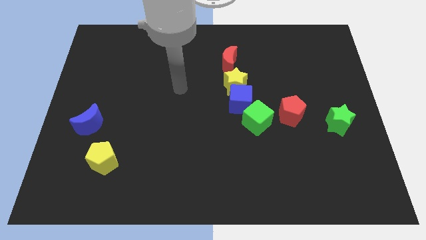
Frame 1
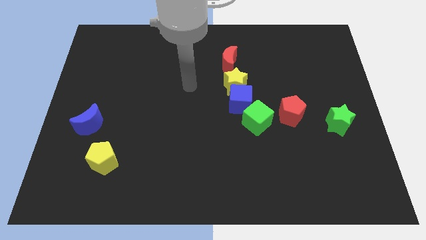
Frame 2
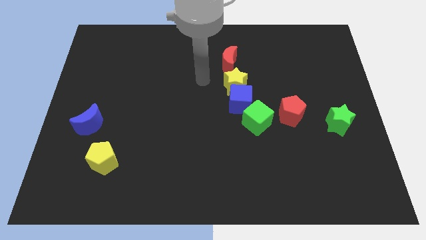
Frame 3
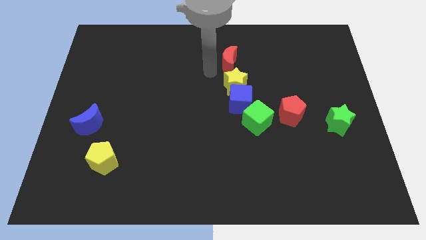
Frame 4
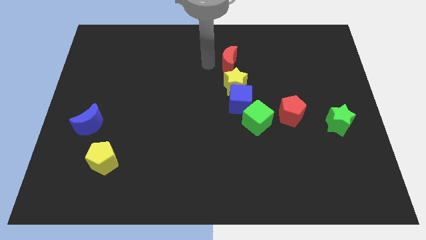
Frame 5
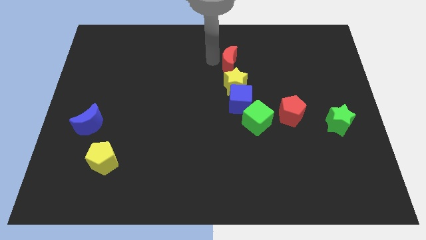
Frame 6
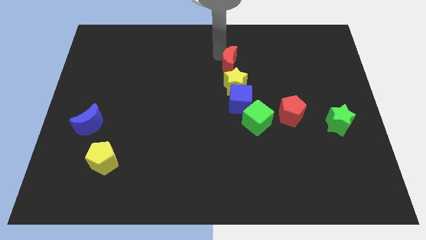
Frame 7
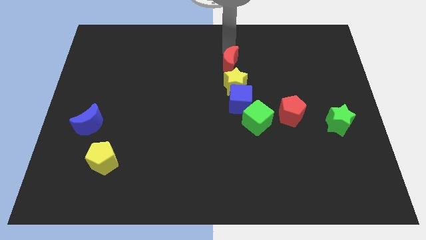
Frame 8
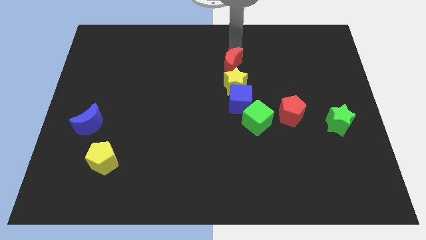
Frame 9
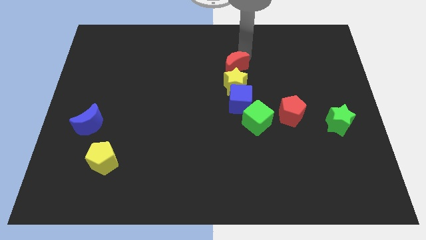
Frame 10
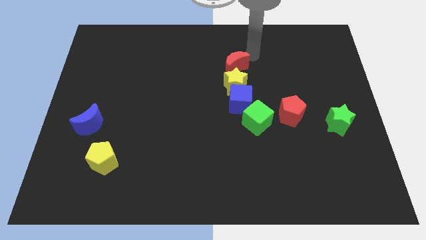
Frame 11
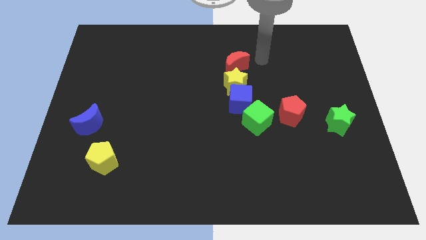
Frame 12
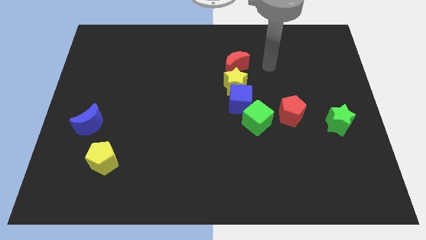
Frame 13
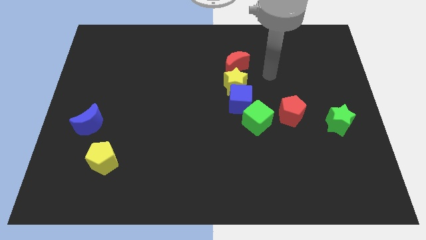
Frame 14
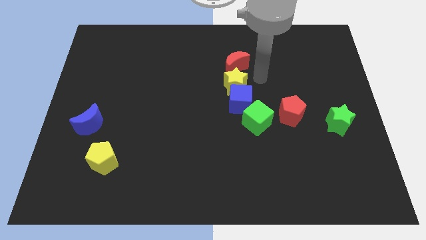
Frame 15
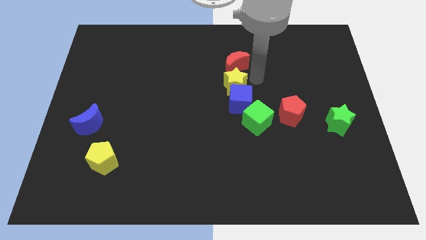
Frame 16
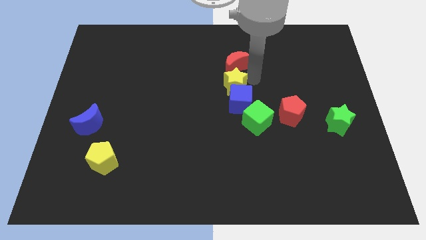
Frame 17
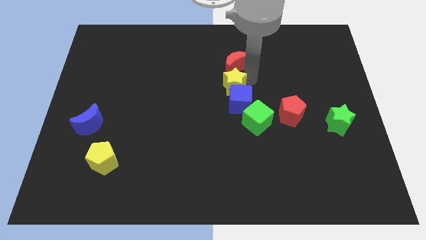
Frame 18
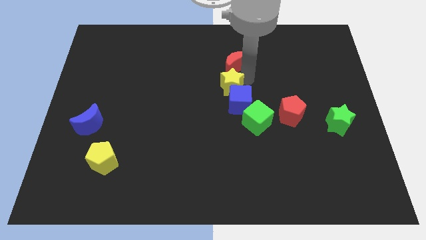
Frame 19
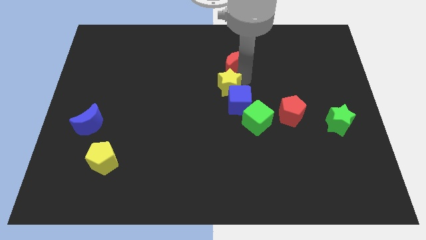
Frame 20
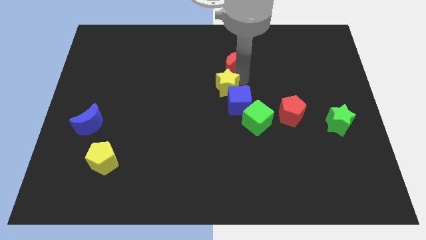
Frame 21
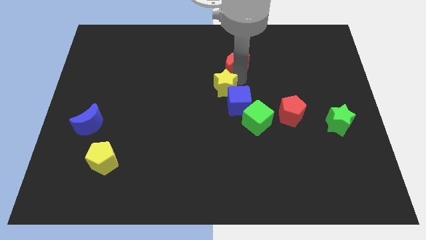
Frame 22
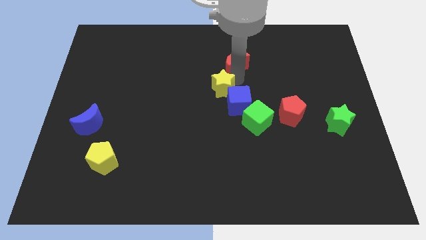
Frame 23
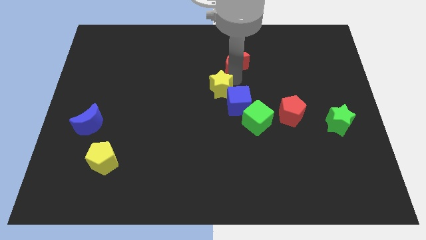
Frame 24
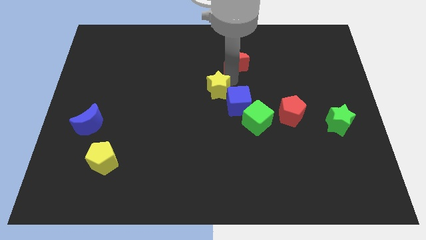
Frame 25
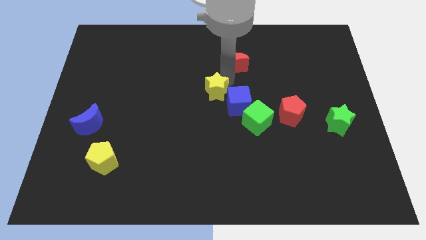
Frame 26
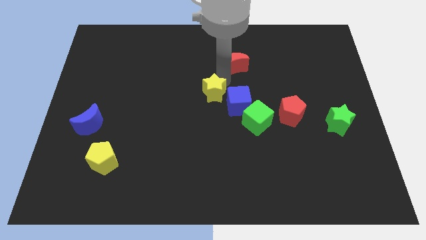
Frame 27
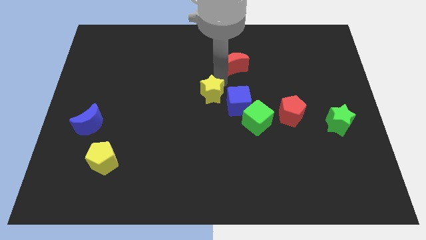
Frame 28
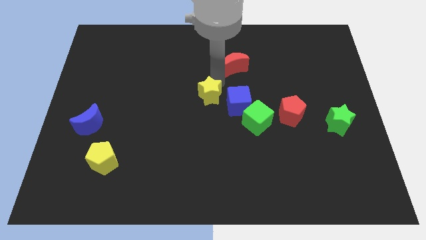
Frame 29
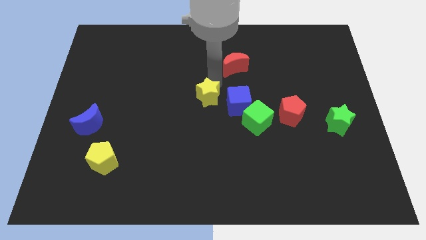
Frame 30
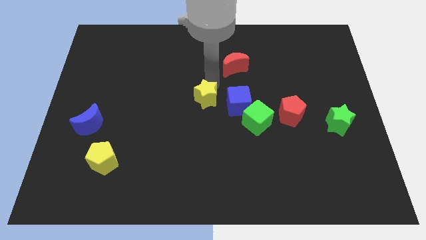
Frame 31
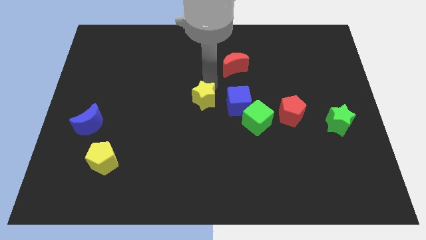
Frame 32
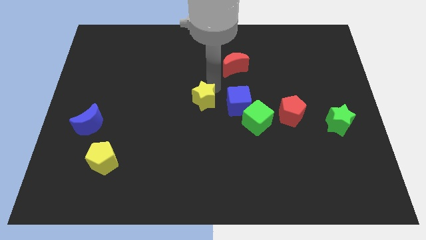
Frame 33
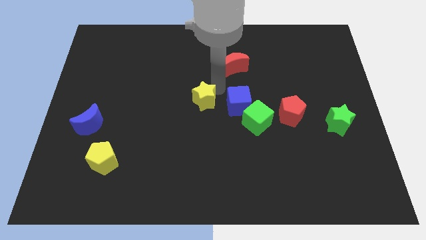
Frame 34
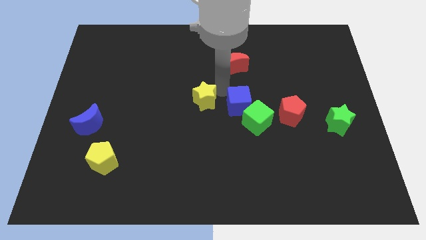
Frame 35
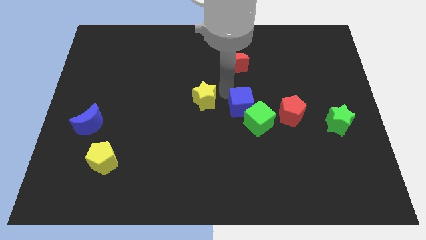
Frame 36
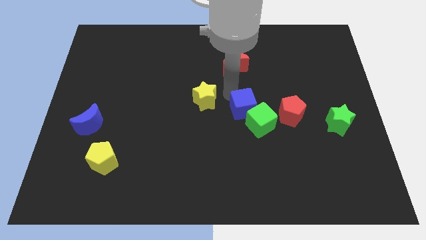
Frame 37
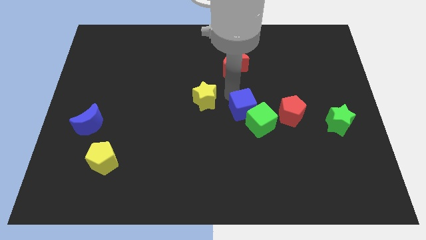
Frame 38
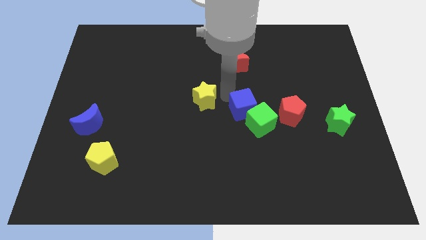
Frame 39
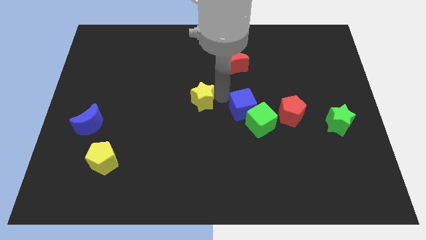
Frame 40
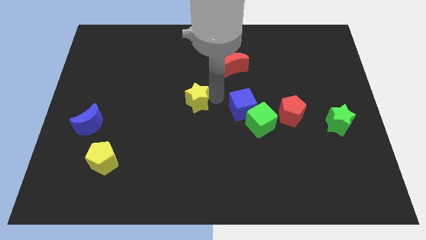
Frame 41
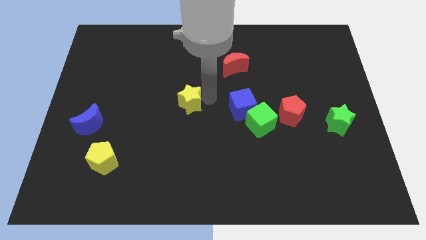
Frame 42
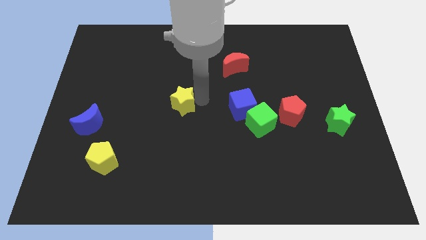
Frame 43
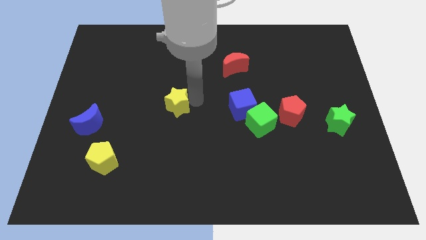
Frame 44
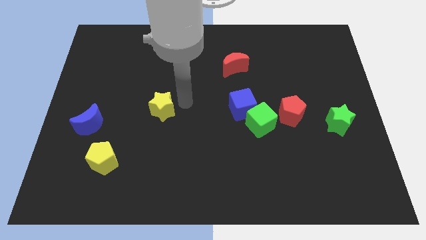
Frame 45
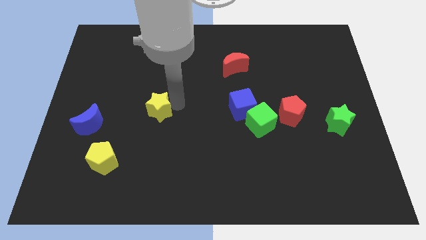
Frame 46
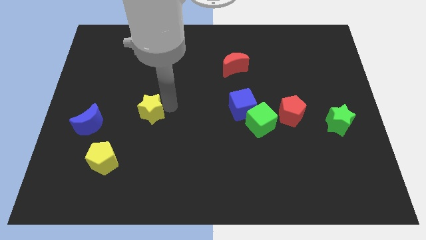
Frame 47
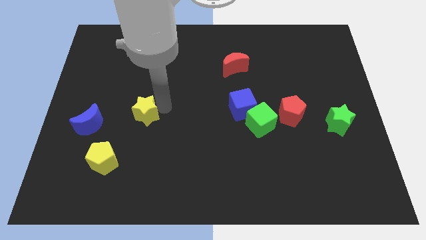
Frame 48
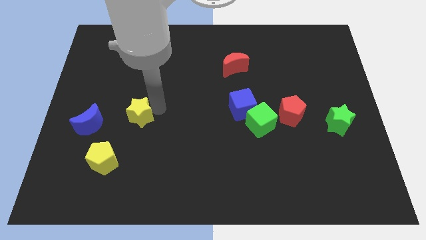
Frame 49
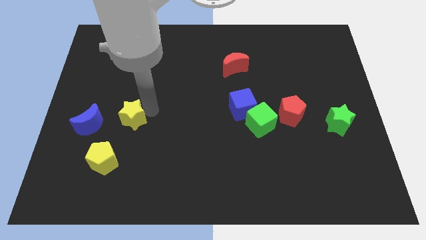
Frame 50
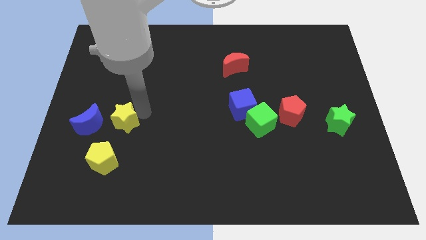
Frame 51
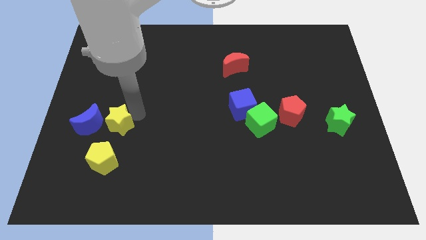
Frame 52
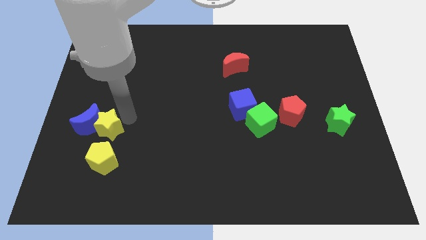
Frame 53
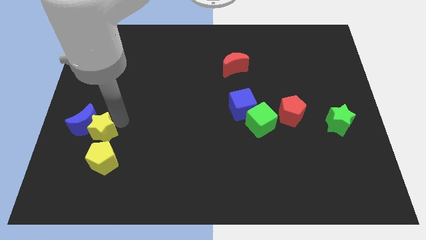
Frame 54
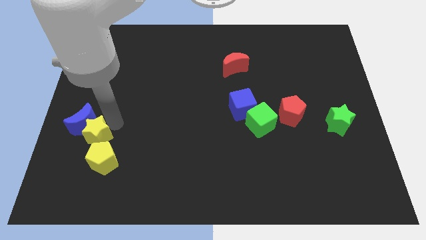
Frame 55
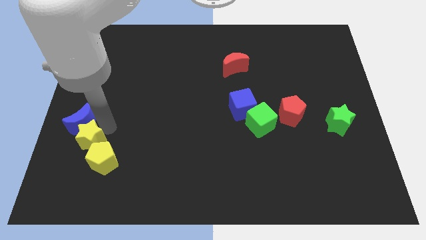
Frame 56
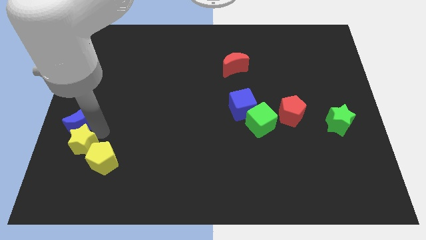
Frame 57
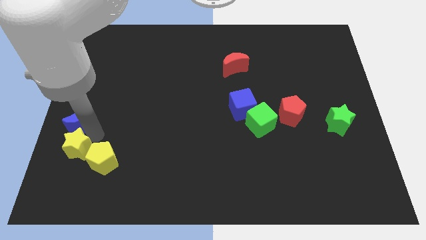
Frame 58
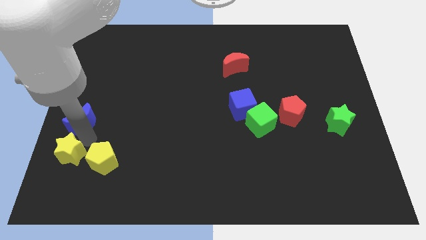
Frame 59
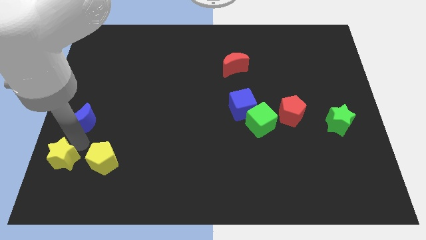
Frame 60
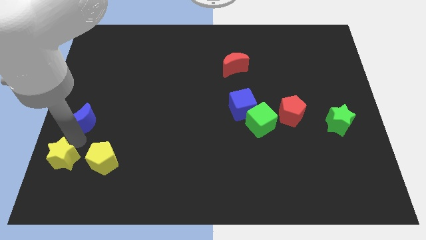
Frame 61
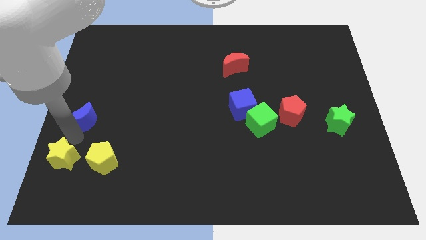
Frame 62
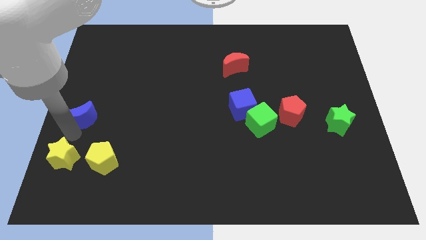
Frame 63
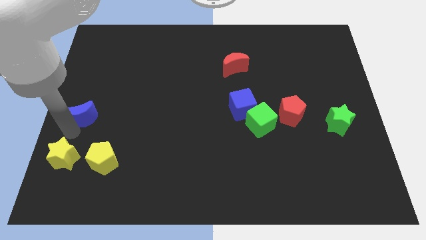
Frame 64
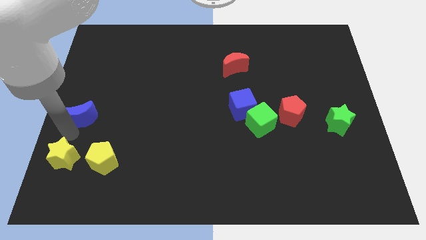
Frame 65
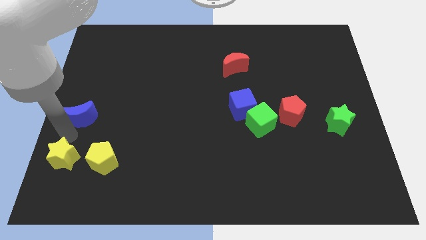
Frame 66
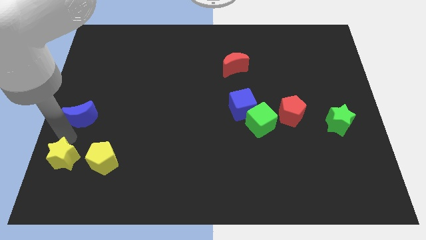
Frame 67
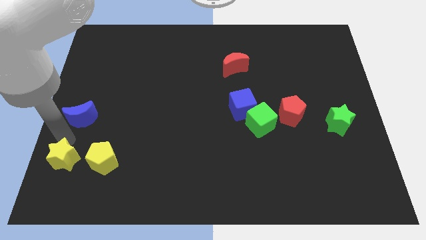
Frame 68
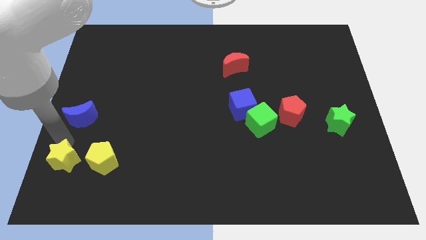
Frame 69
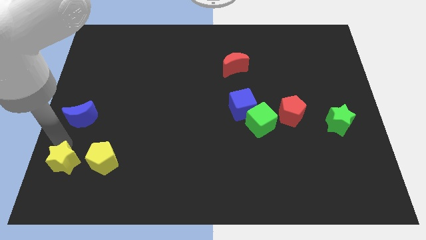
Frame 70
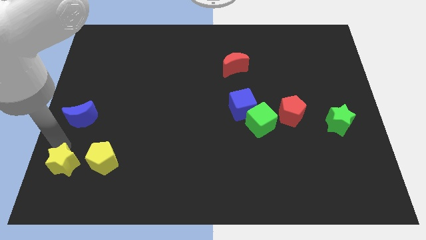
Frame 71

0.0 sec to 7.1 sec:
slide the yellow star to the bottom left
